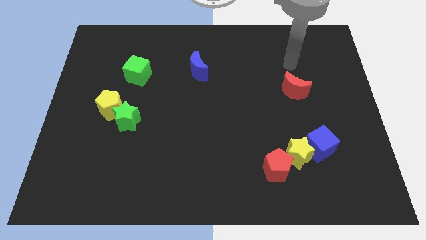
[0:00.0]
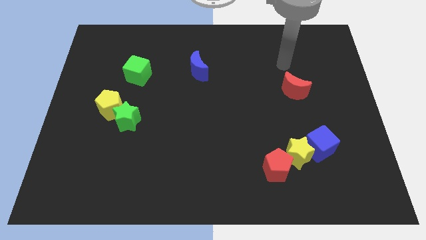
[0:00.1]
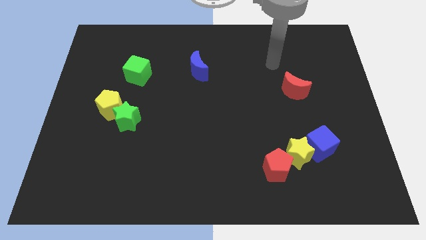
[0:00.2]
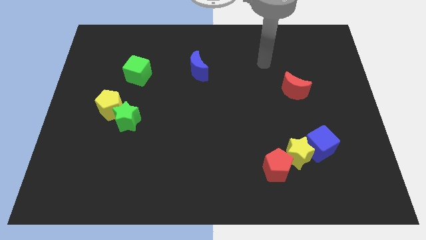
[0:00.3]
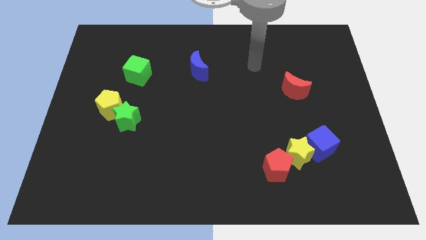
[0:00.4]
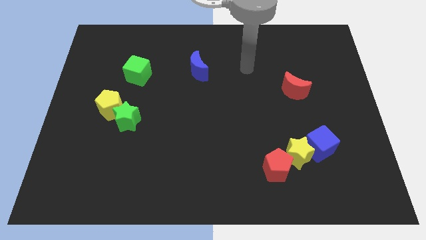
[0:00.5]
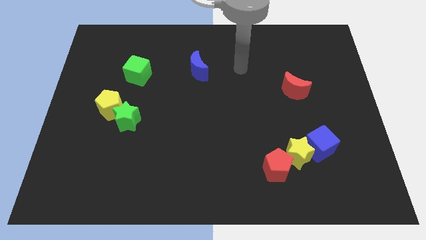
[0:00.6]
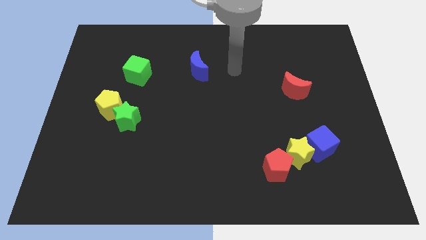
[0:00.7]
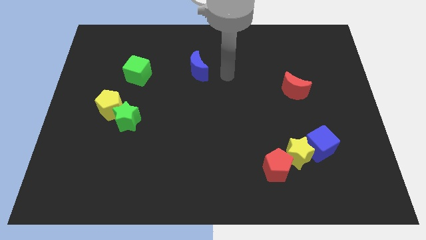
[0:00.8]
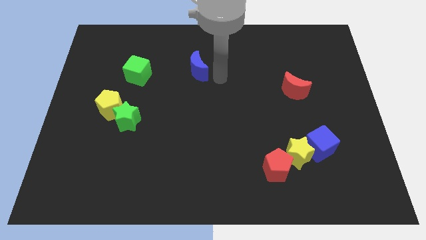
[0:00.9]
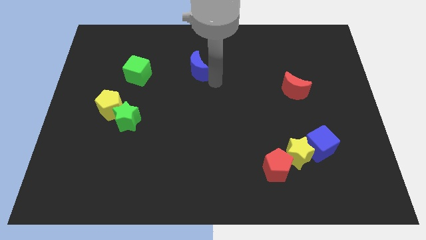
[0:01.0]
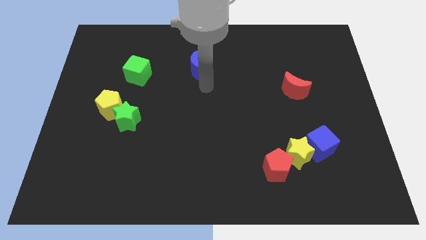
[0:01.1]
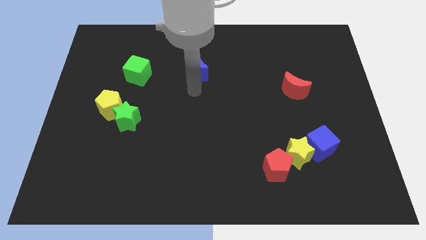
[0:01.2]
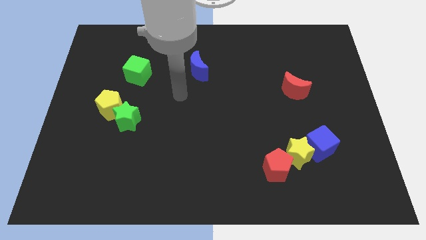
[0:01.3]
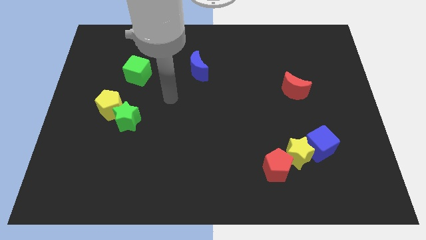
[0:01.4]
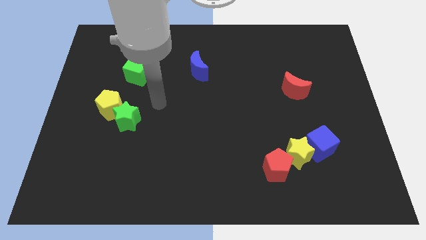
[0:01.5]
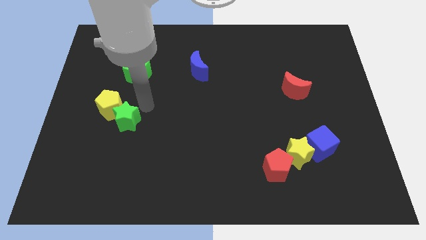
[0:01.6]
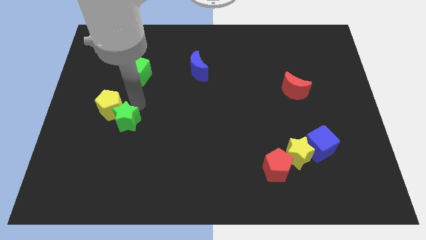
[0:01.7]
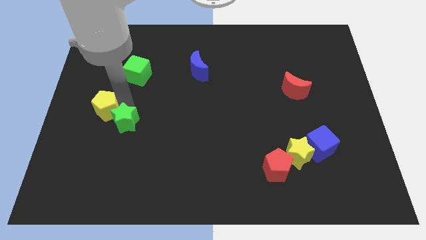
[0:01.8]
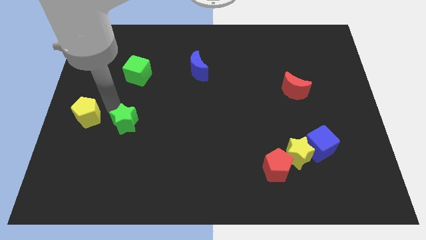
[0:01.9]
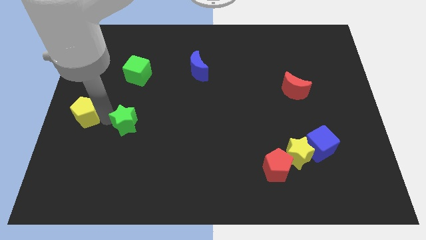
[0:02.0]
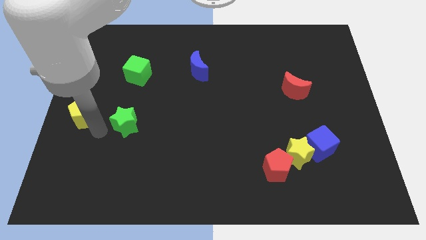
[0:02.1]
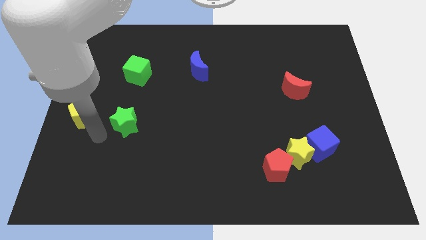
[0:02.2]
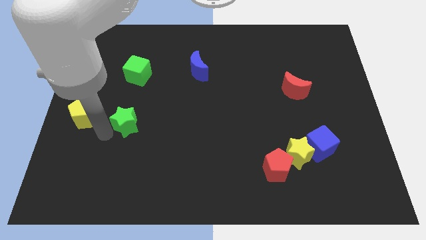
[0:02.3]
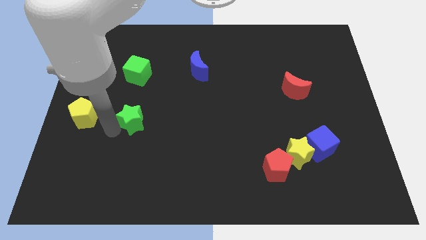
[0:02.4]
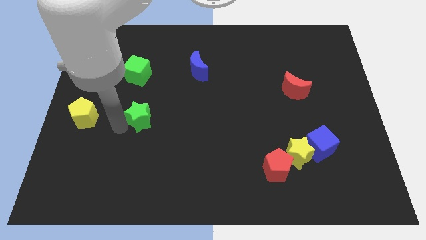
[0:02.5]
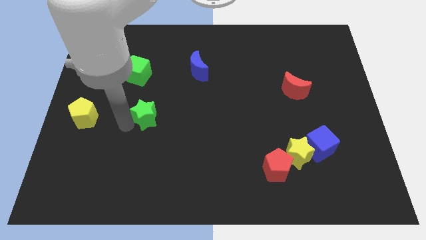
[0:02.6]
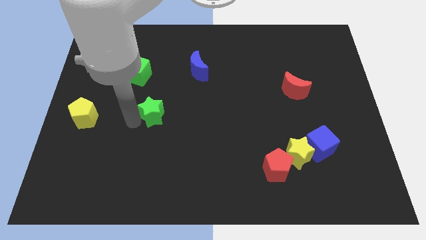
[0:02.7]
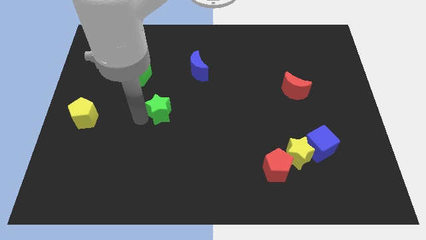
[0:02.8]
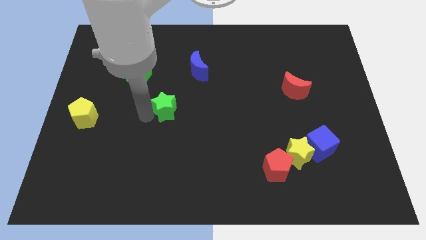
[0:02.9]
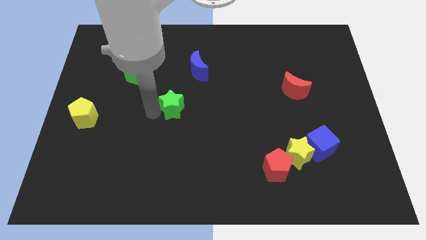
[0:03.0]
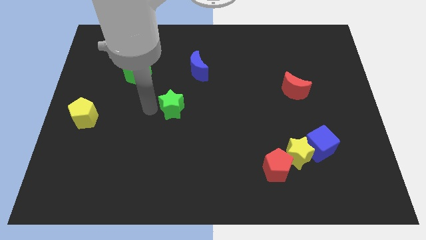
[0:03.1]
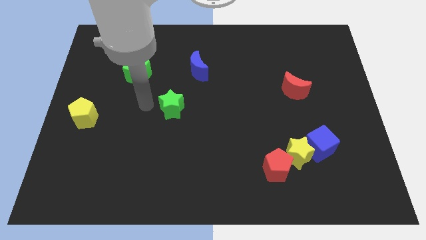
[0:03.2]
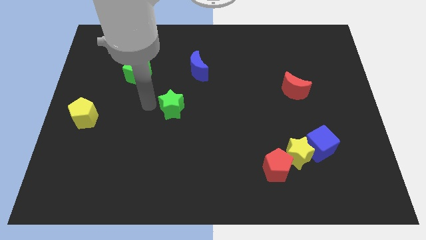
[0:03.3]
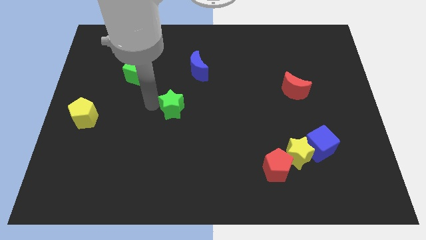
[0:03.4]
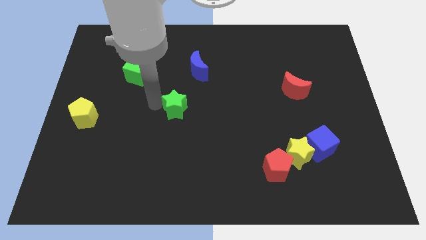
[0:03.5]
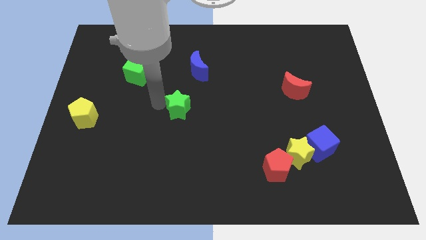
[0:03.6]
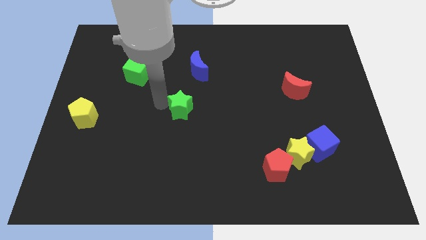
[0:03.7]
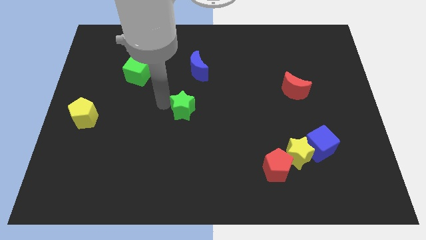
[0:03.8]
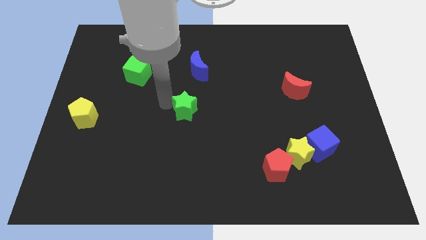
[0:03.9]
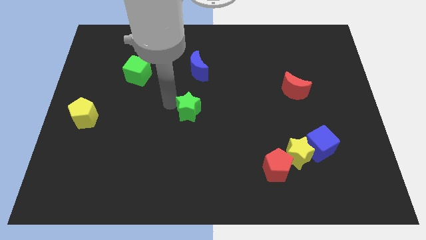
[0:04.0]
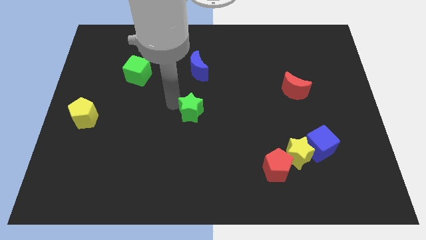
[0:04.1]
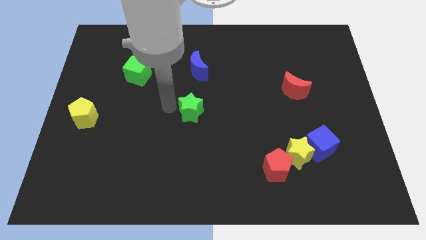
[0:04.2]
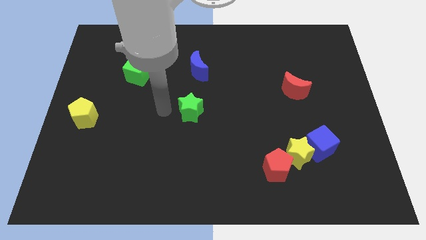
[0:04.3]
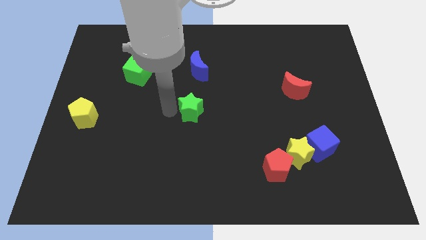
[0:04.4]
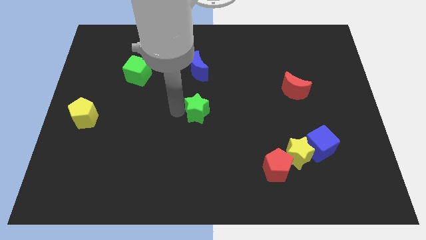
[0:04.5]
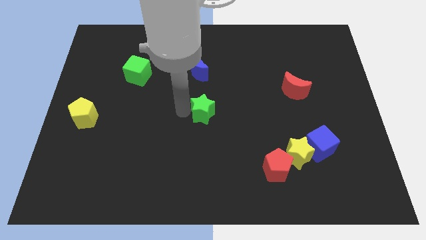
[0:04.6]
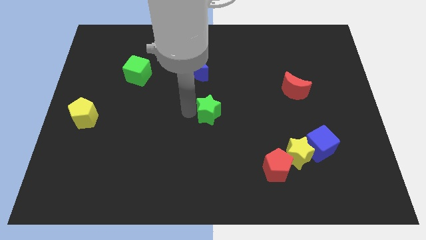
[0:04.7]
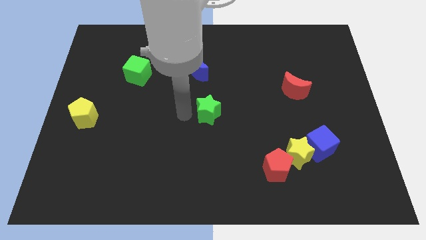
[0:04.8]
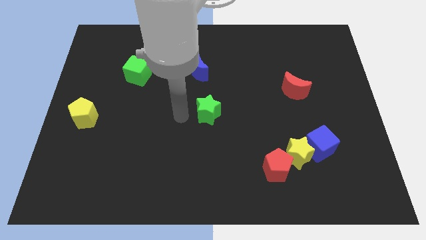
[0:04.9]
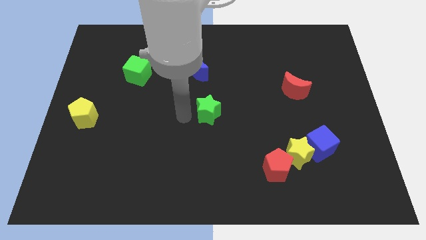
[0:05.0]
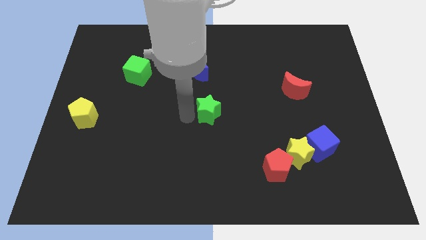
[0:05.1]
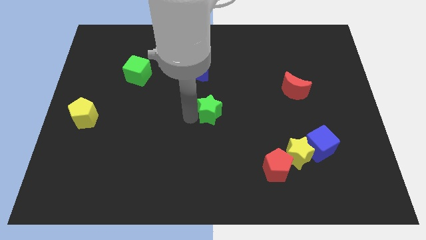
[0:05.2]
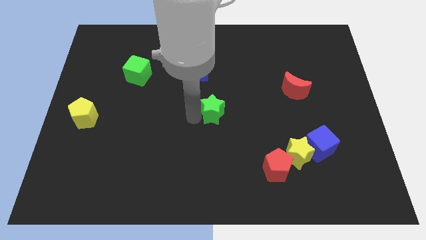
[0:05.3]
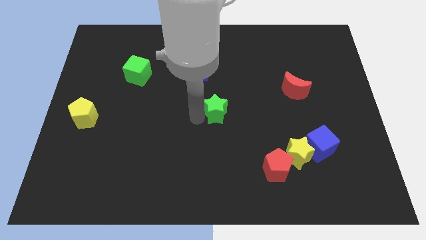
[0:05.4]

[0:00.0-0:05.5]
slide the green star right

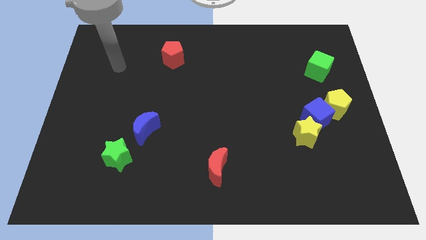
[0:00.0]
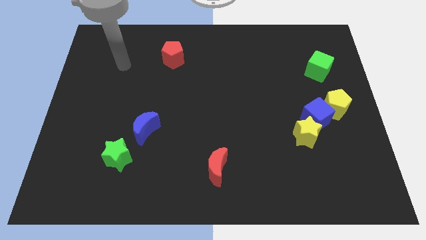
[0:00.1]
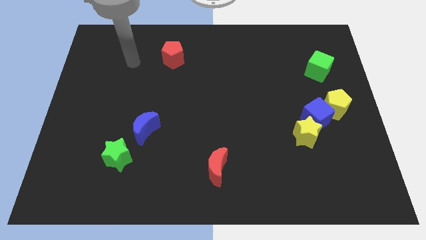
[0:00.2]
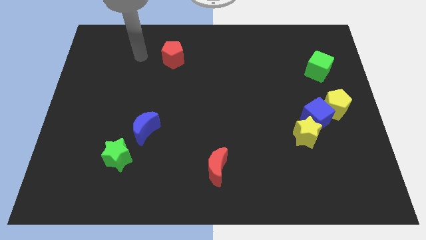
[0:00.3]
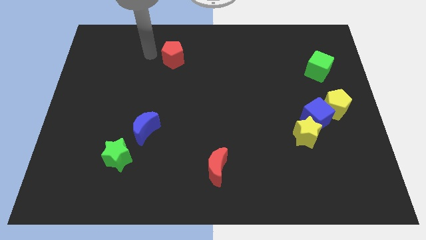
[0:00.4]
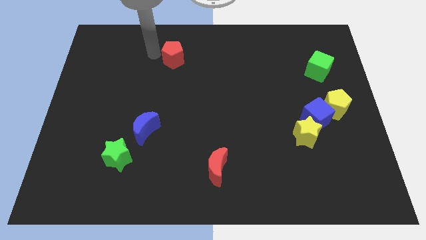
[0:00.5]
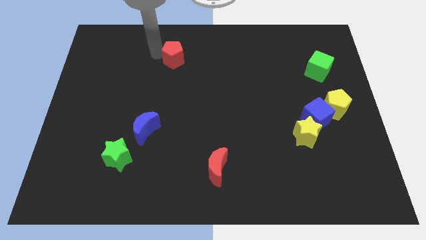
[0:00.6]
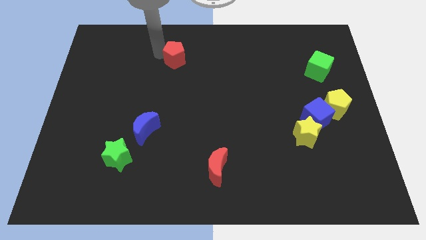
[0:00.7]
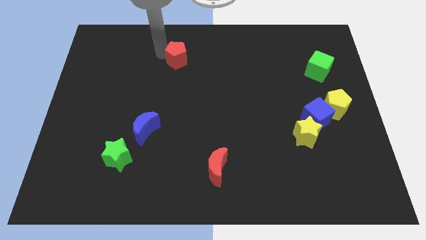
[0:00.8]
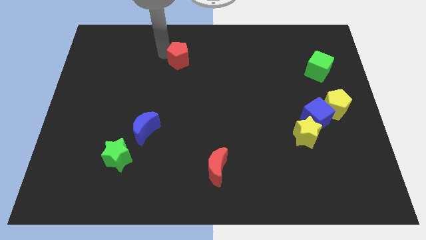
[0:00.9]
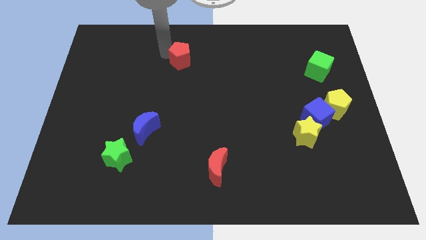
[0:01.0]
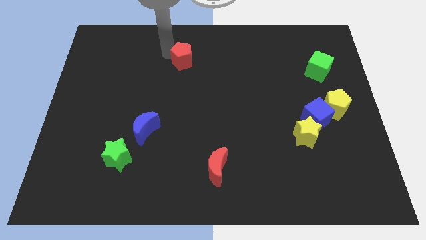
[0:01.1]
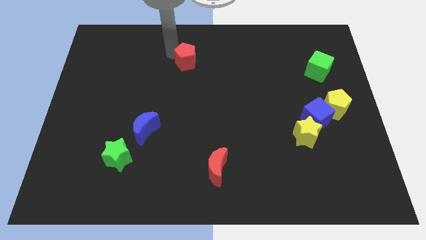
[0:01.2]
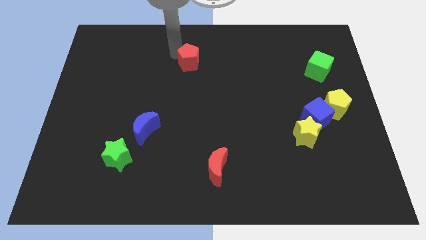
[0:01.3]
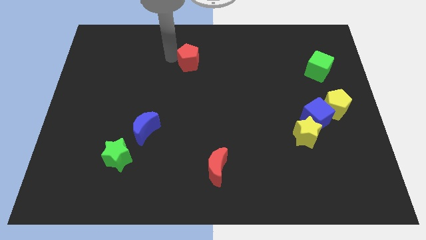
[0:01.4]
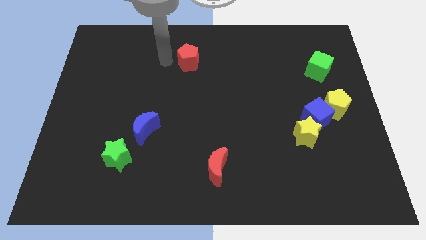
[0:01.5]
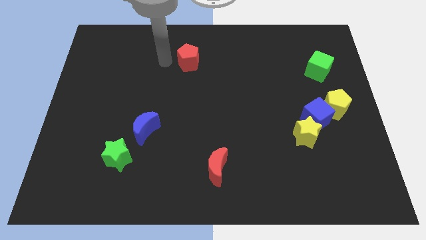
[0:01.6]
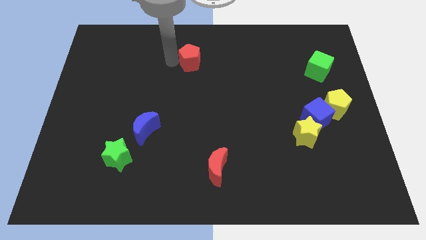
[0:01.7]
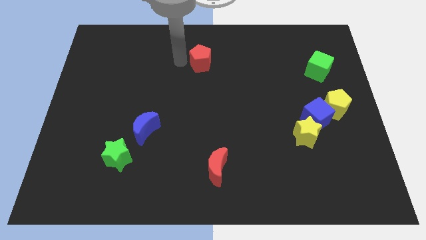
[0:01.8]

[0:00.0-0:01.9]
slightly push the red pentagon to the right

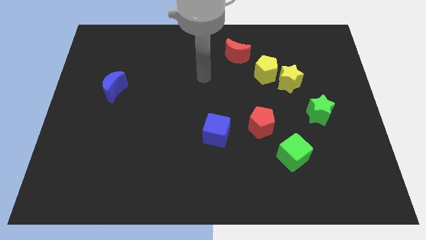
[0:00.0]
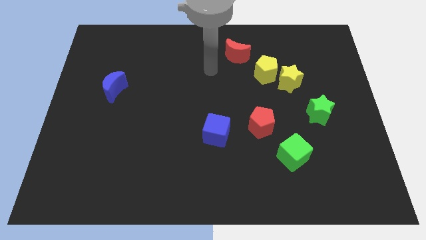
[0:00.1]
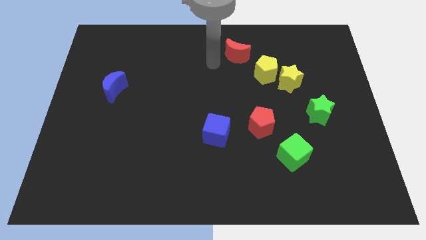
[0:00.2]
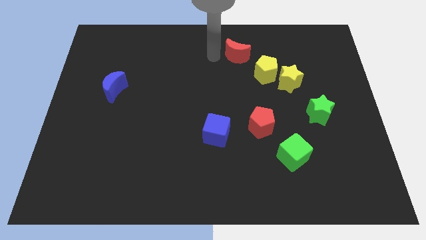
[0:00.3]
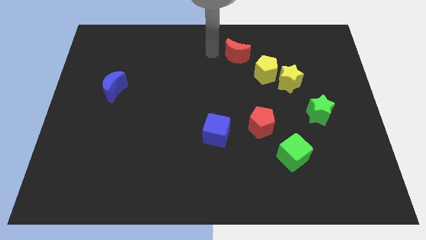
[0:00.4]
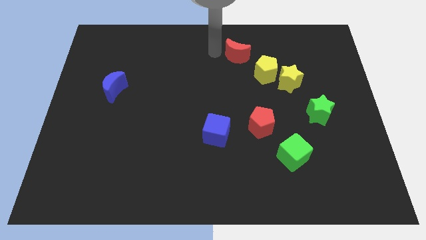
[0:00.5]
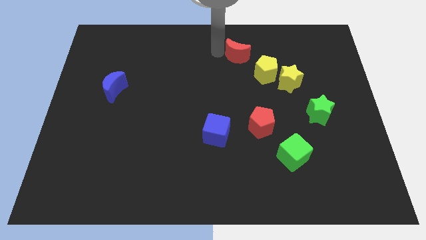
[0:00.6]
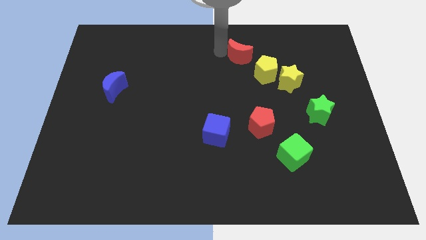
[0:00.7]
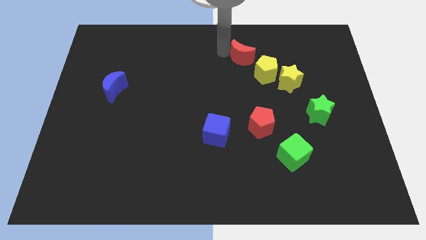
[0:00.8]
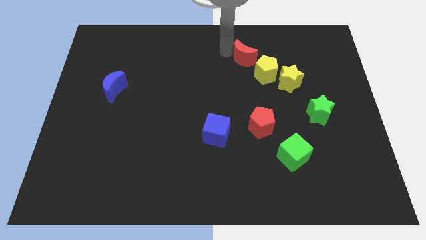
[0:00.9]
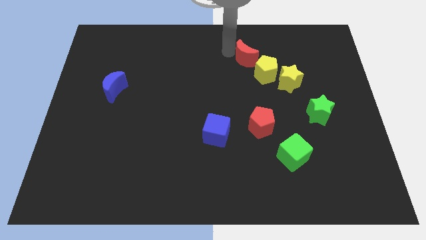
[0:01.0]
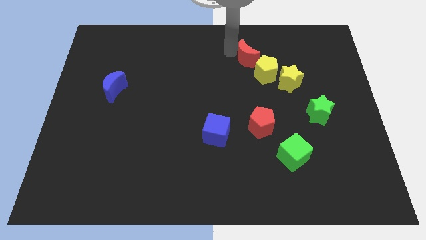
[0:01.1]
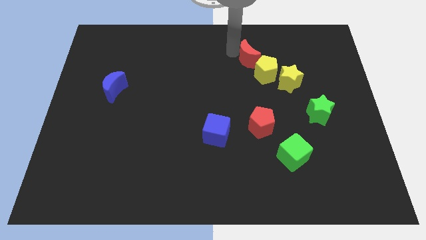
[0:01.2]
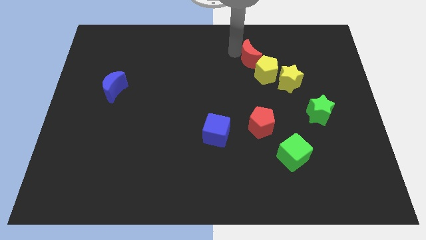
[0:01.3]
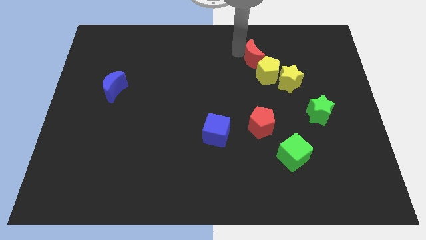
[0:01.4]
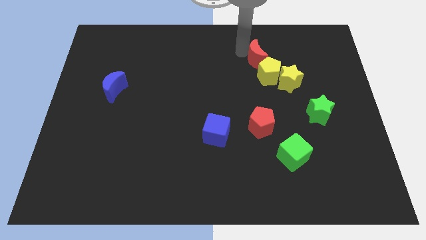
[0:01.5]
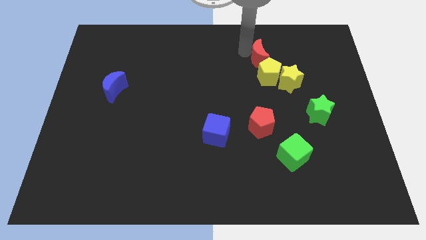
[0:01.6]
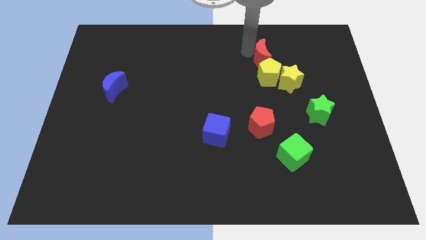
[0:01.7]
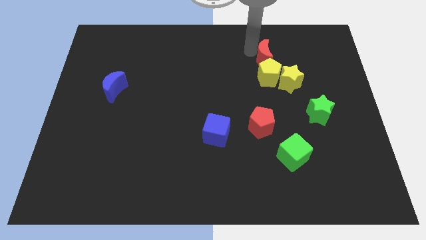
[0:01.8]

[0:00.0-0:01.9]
slide the red moon somewhat right
